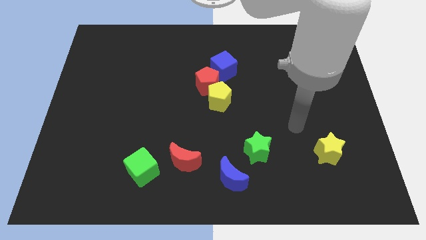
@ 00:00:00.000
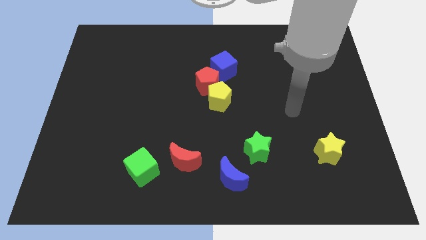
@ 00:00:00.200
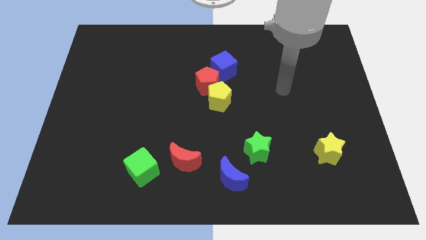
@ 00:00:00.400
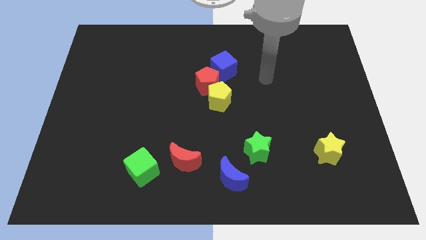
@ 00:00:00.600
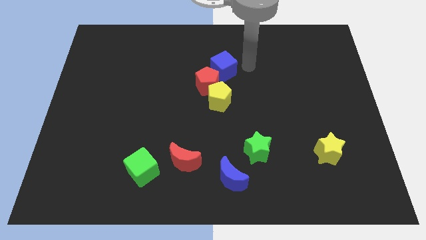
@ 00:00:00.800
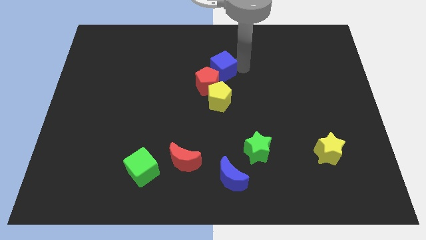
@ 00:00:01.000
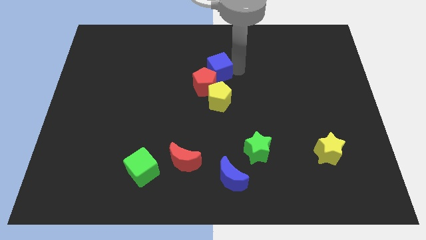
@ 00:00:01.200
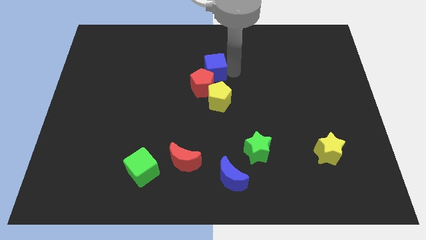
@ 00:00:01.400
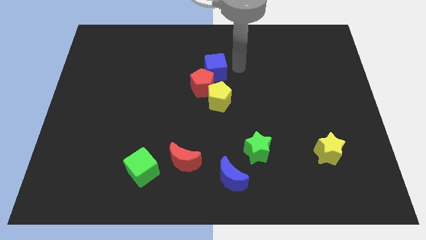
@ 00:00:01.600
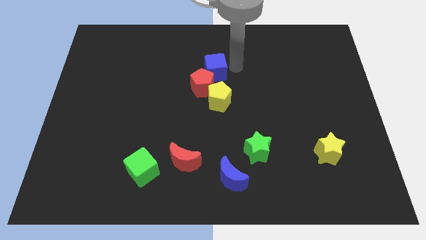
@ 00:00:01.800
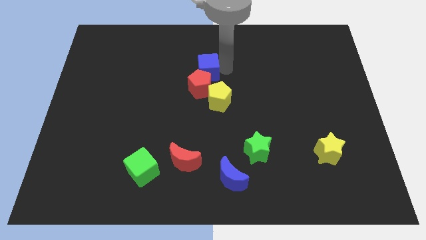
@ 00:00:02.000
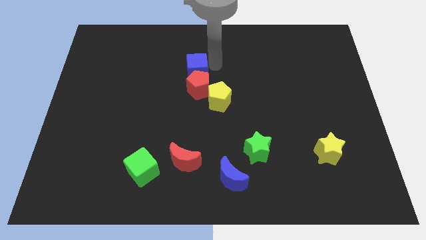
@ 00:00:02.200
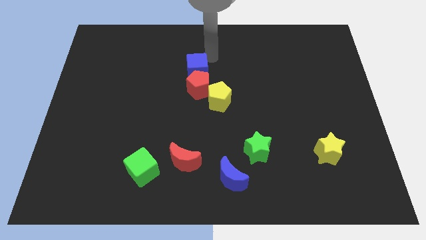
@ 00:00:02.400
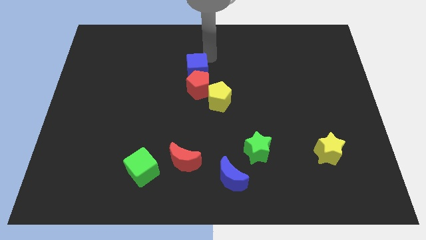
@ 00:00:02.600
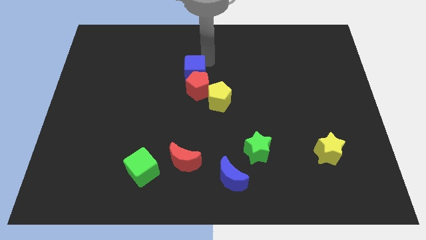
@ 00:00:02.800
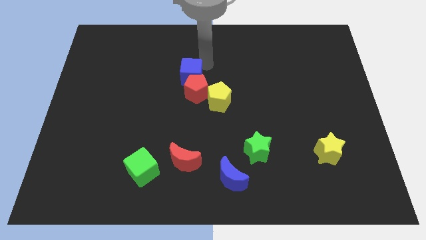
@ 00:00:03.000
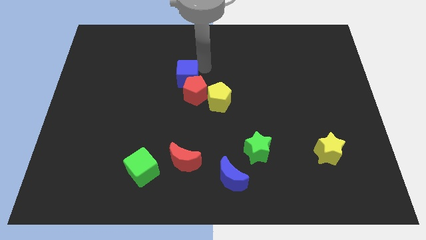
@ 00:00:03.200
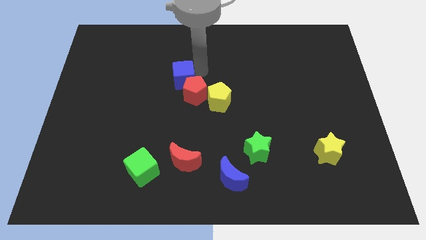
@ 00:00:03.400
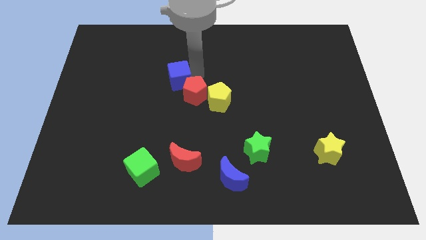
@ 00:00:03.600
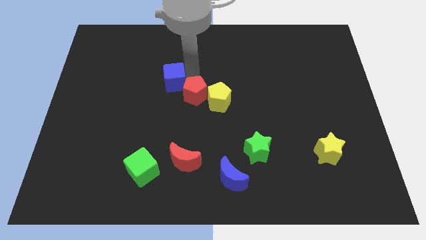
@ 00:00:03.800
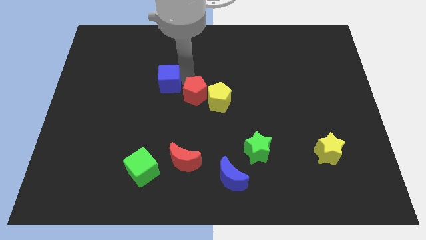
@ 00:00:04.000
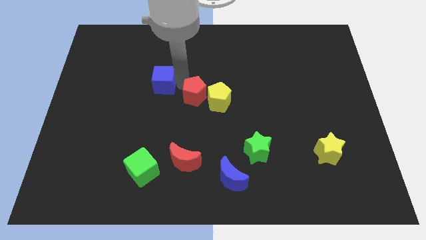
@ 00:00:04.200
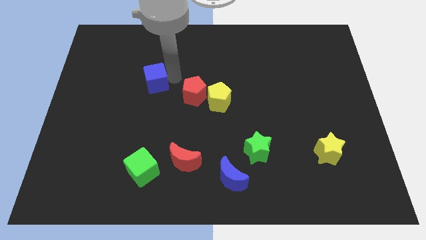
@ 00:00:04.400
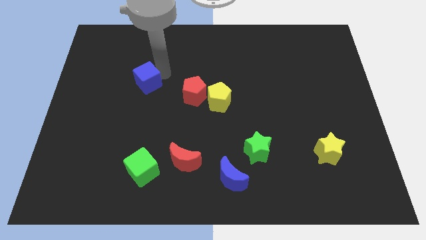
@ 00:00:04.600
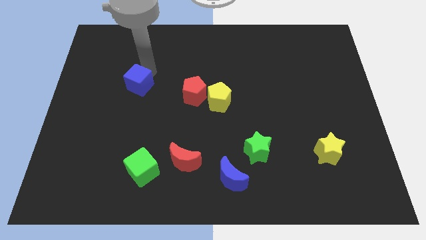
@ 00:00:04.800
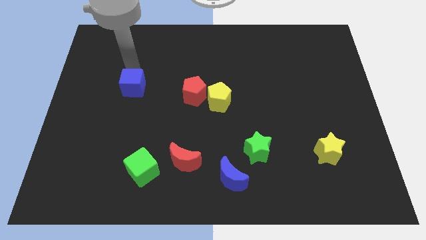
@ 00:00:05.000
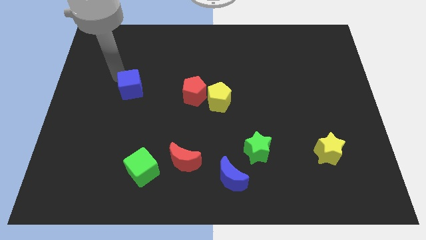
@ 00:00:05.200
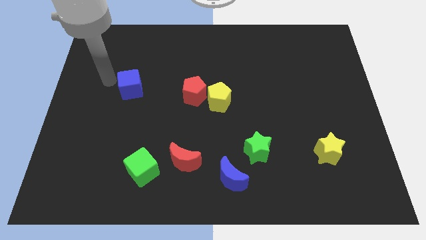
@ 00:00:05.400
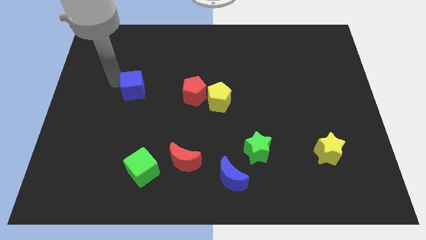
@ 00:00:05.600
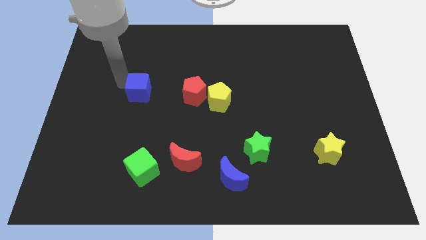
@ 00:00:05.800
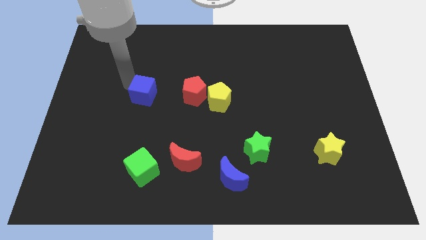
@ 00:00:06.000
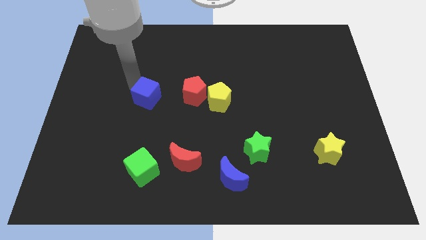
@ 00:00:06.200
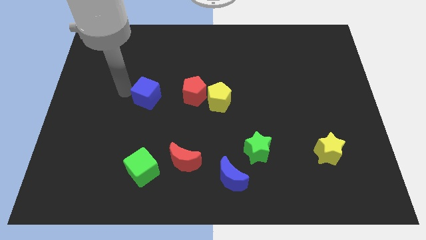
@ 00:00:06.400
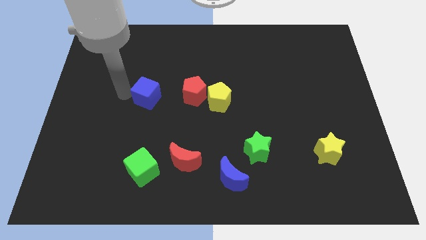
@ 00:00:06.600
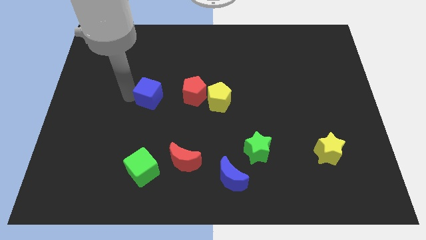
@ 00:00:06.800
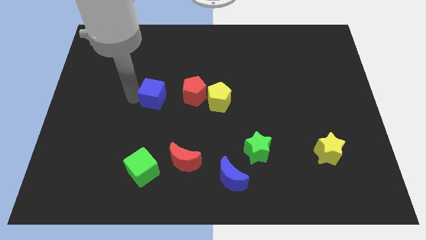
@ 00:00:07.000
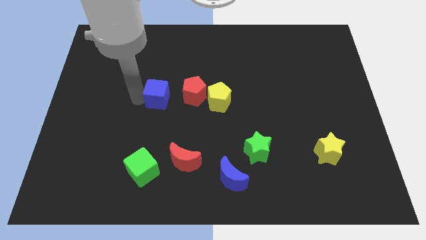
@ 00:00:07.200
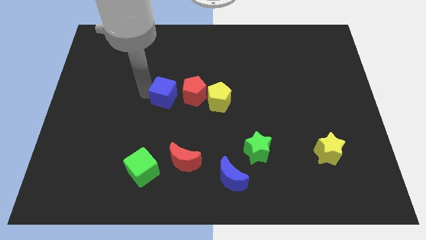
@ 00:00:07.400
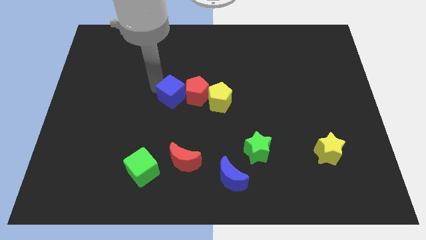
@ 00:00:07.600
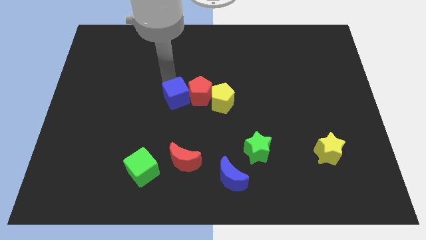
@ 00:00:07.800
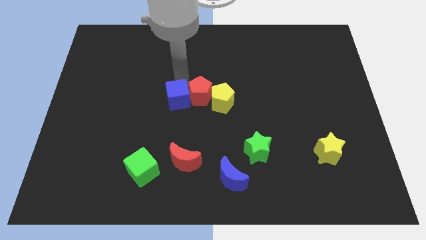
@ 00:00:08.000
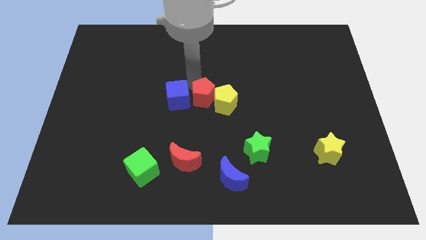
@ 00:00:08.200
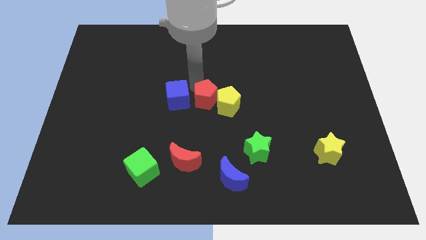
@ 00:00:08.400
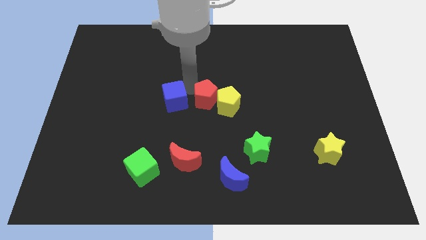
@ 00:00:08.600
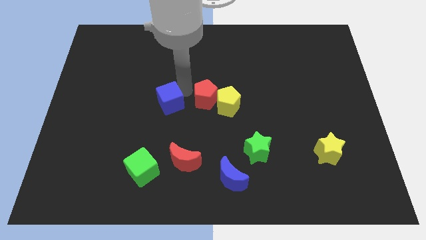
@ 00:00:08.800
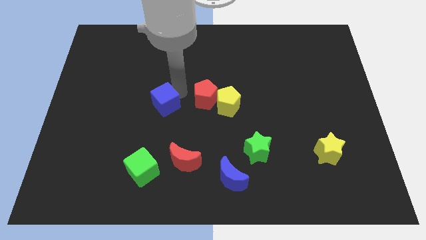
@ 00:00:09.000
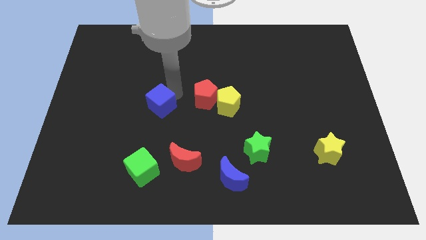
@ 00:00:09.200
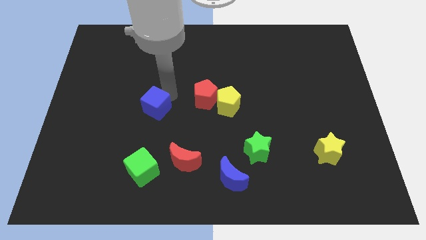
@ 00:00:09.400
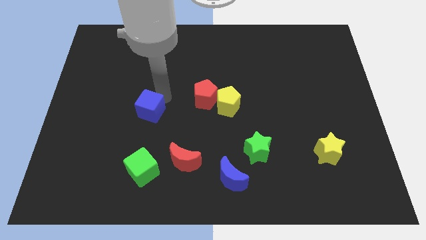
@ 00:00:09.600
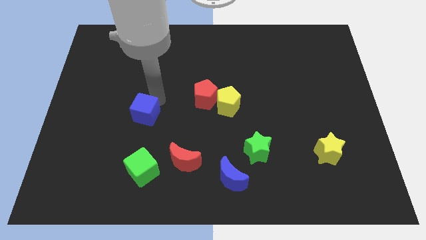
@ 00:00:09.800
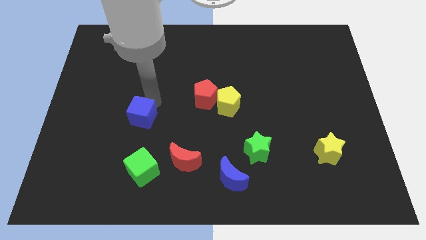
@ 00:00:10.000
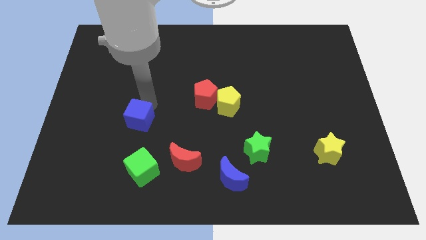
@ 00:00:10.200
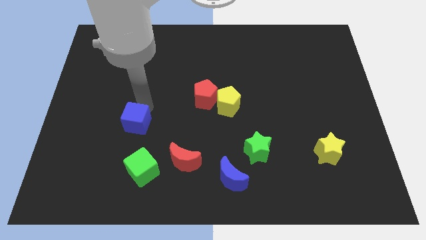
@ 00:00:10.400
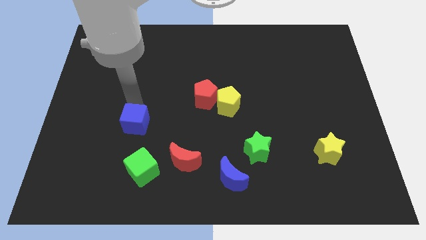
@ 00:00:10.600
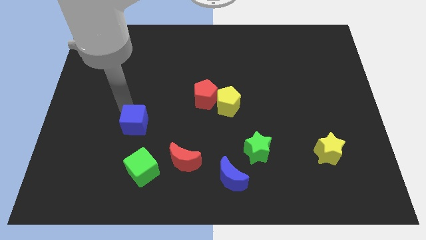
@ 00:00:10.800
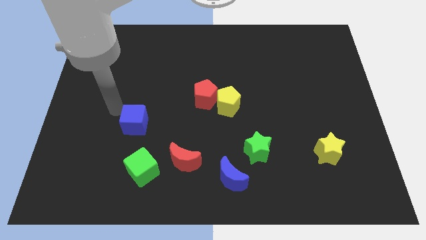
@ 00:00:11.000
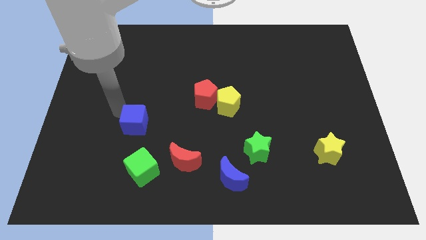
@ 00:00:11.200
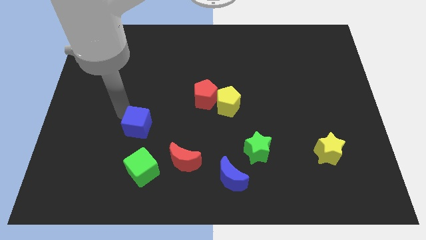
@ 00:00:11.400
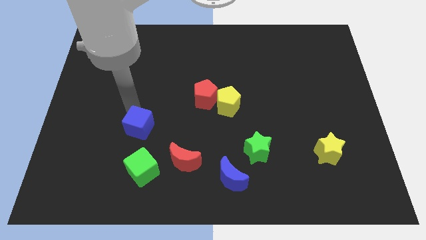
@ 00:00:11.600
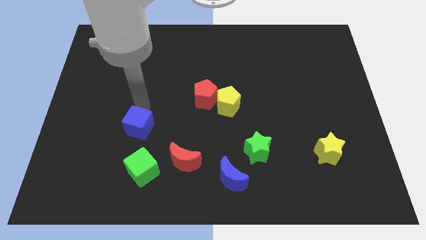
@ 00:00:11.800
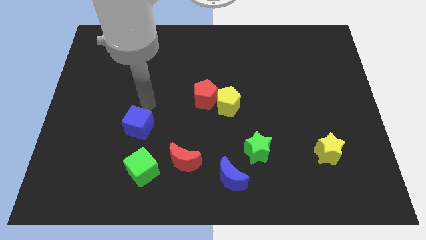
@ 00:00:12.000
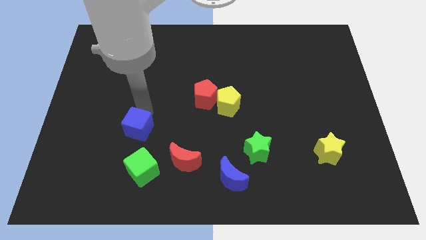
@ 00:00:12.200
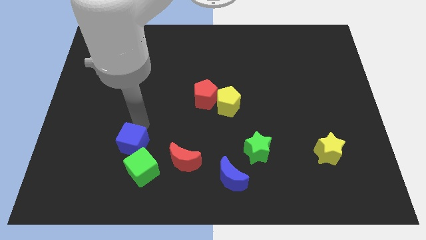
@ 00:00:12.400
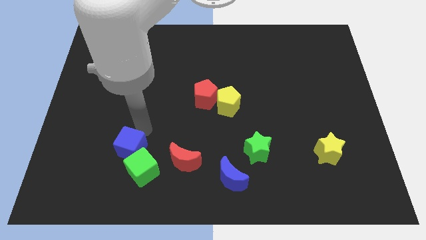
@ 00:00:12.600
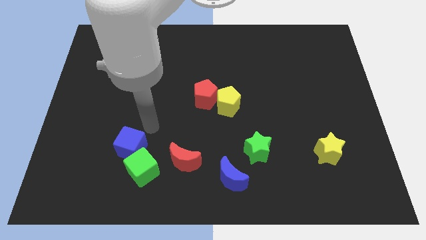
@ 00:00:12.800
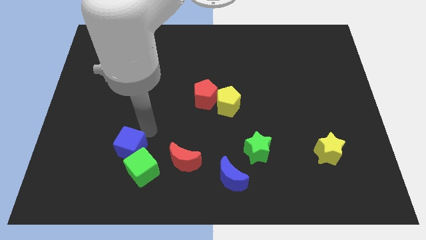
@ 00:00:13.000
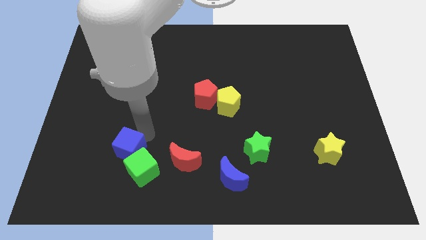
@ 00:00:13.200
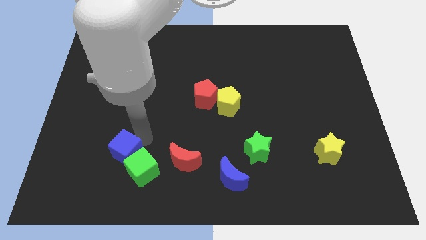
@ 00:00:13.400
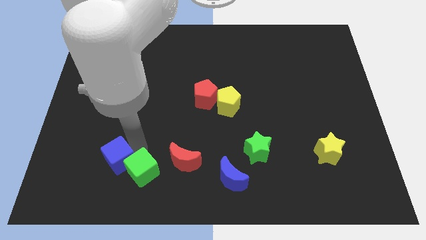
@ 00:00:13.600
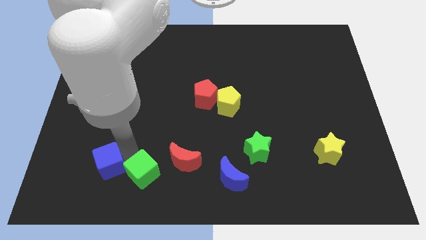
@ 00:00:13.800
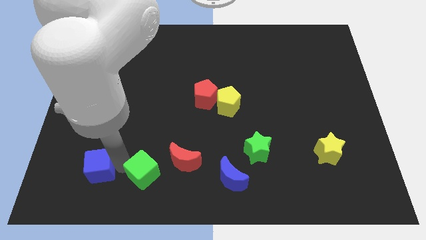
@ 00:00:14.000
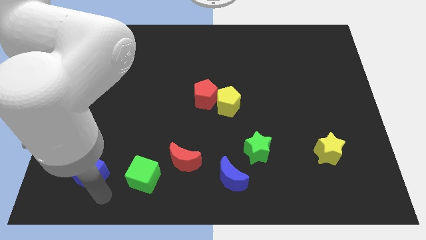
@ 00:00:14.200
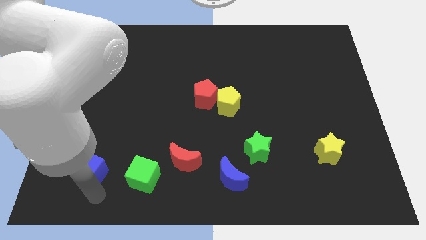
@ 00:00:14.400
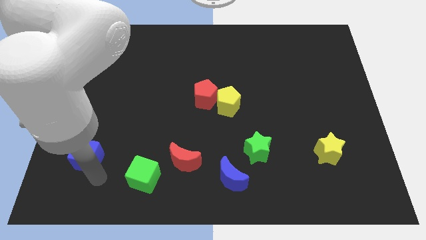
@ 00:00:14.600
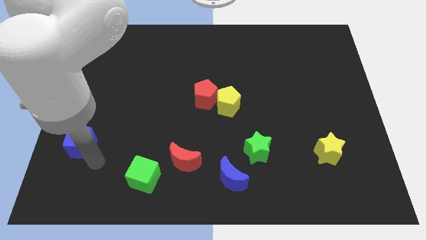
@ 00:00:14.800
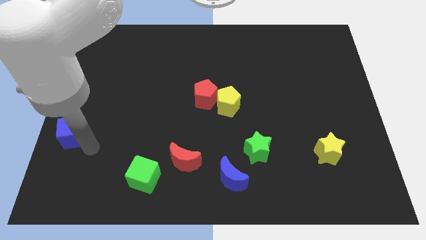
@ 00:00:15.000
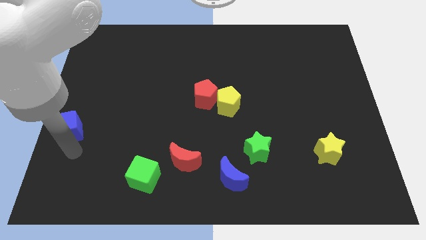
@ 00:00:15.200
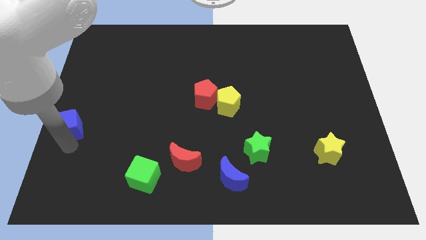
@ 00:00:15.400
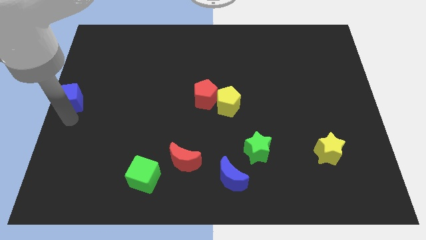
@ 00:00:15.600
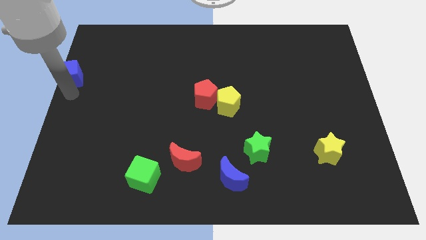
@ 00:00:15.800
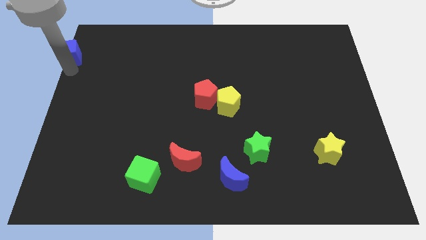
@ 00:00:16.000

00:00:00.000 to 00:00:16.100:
put the blue cube to the top left of the board
